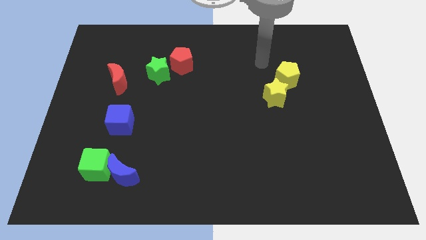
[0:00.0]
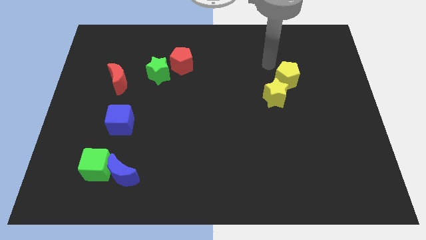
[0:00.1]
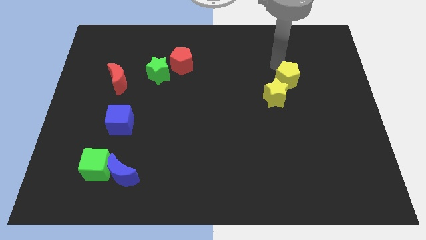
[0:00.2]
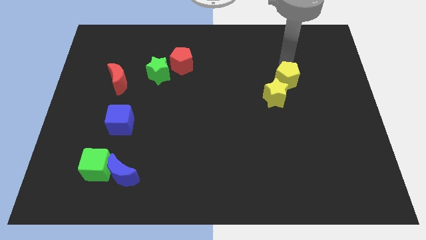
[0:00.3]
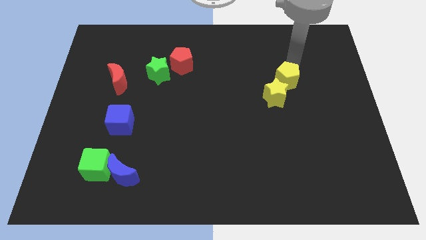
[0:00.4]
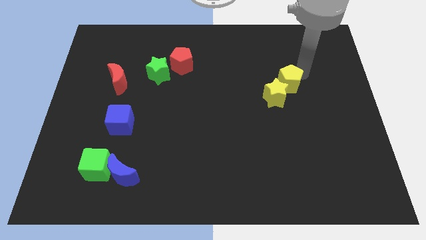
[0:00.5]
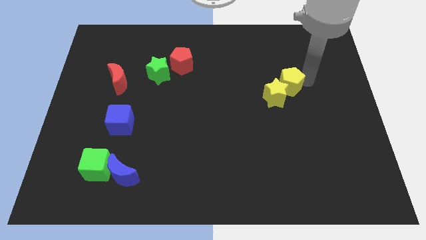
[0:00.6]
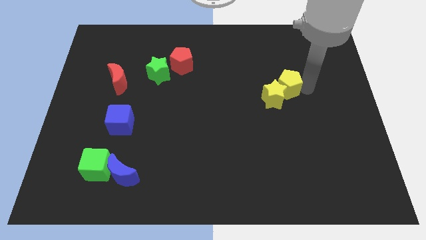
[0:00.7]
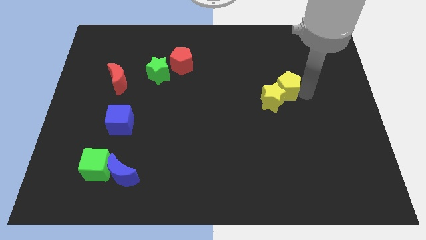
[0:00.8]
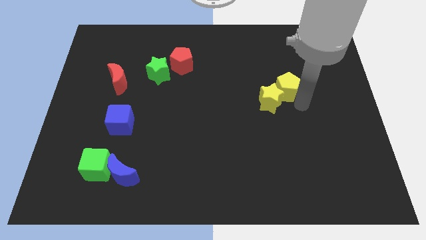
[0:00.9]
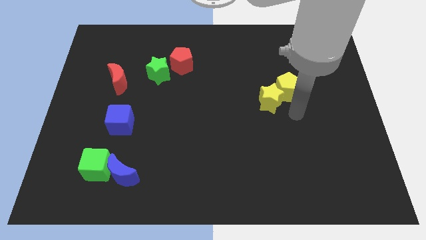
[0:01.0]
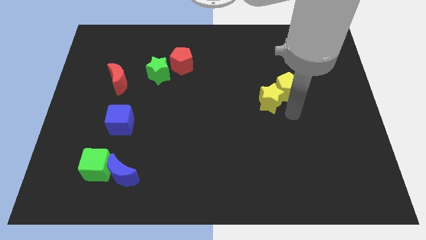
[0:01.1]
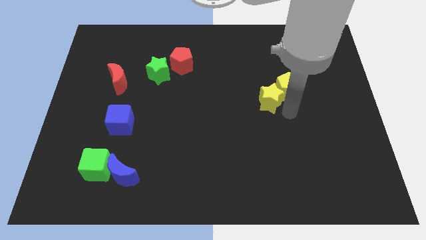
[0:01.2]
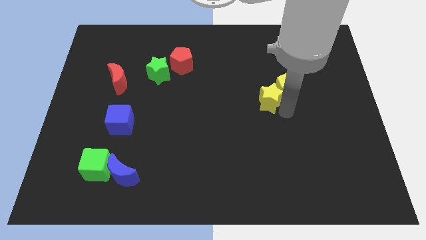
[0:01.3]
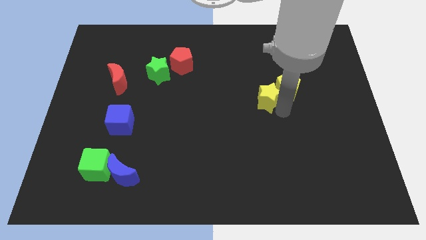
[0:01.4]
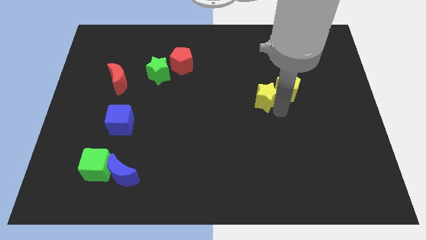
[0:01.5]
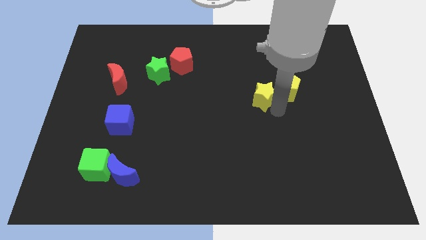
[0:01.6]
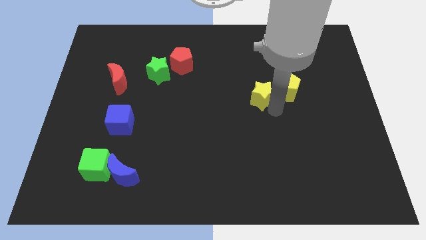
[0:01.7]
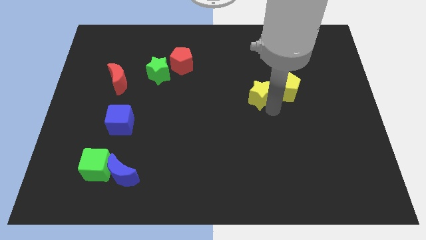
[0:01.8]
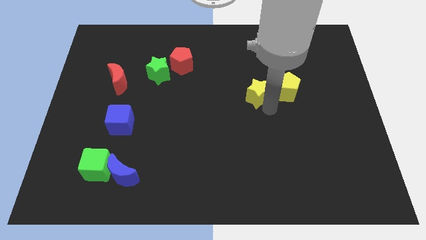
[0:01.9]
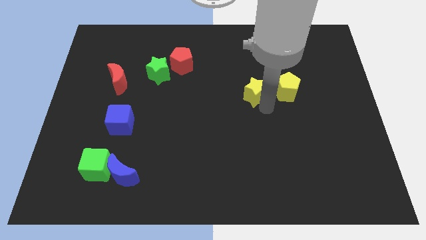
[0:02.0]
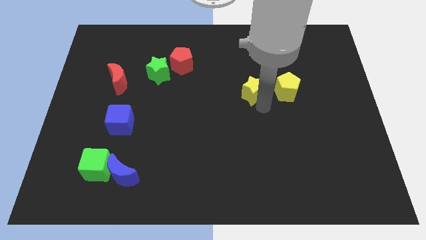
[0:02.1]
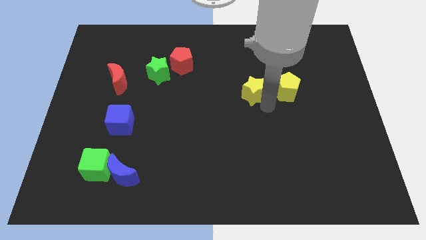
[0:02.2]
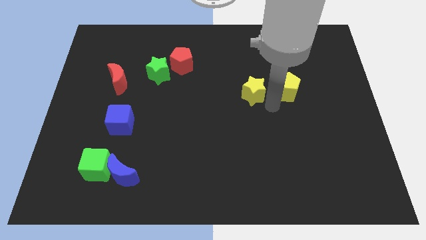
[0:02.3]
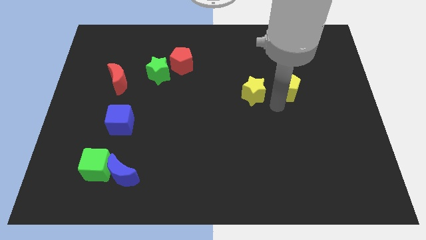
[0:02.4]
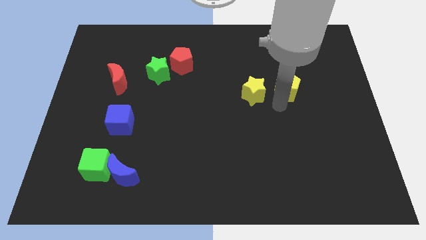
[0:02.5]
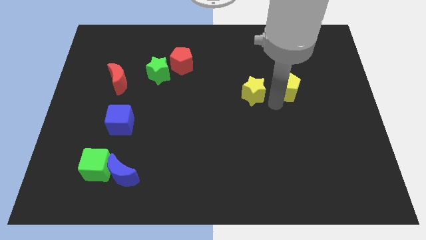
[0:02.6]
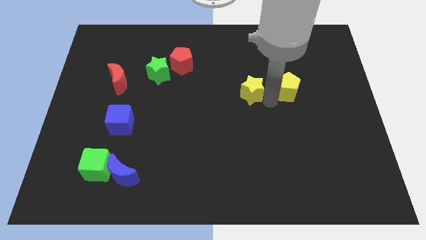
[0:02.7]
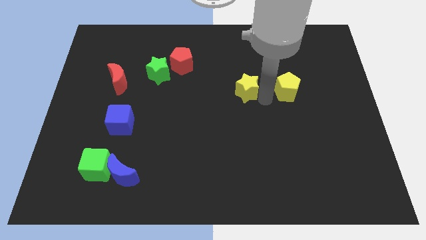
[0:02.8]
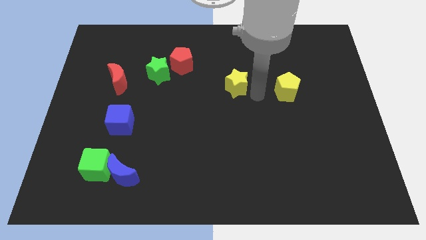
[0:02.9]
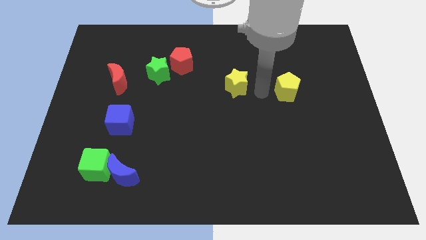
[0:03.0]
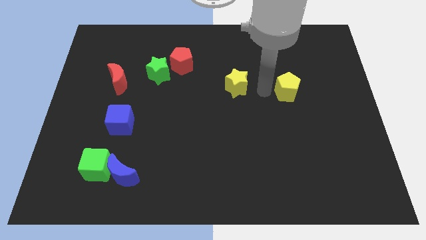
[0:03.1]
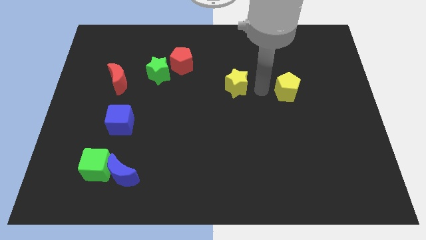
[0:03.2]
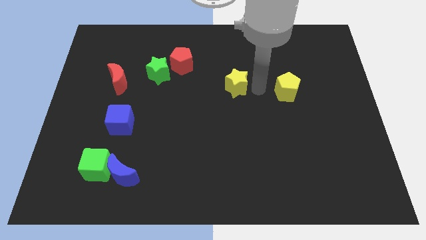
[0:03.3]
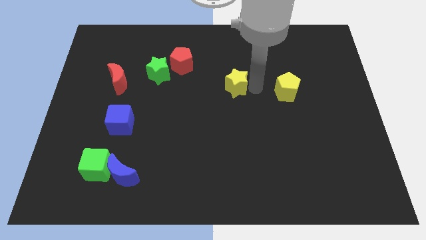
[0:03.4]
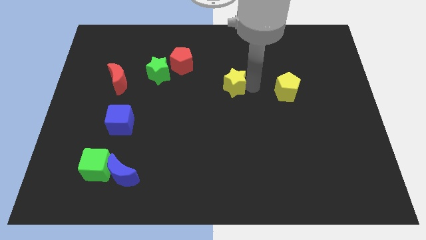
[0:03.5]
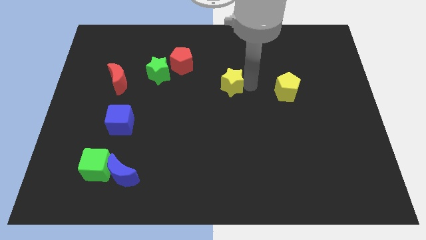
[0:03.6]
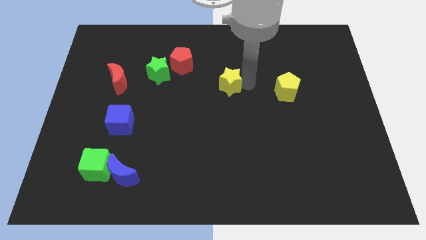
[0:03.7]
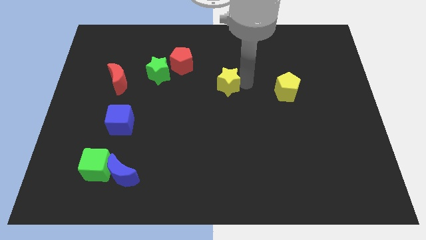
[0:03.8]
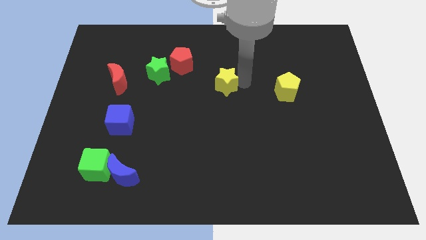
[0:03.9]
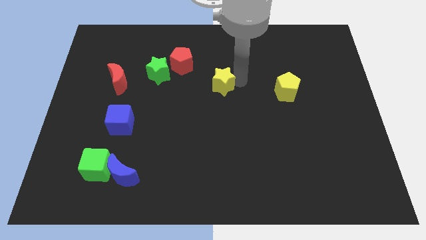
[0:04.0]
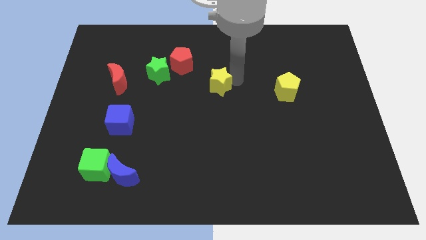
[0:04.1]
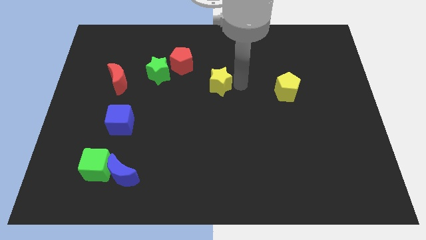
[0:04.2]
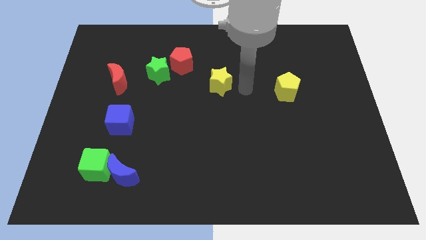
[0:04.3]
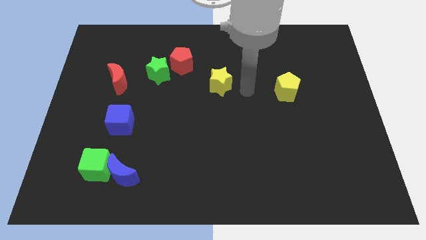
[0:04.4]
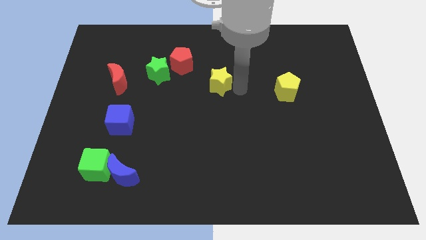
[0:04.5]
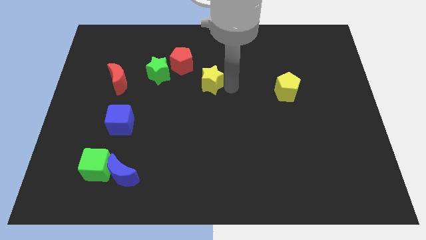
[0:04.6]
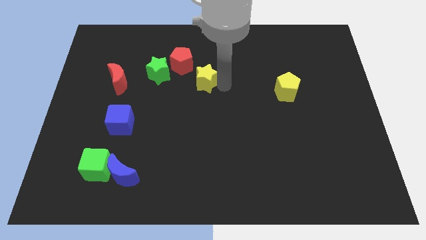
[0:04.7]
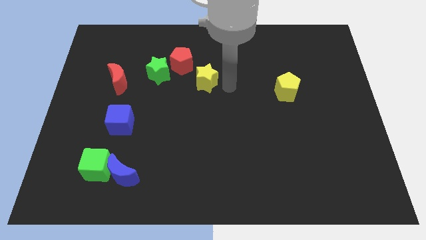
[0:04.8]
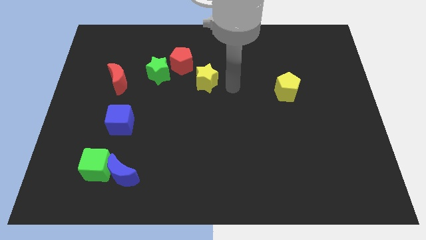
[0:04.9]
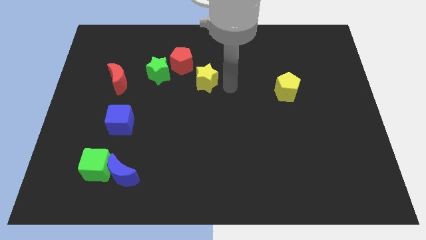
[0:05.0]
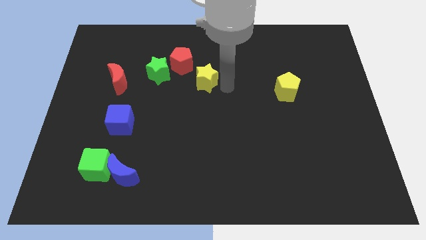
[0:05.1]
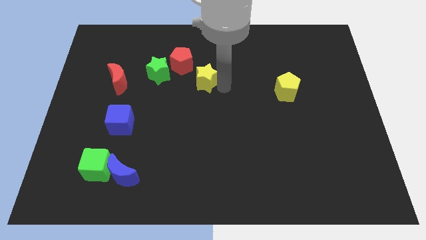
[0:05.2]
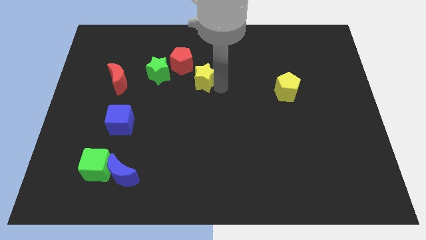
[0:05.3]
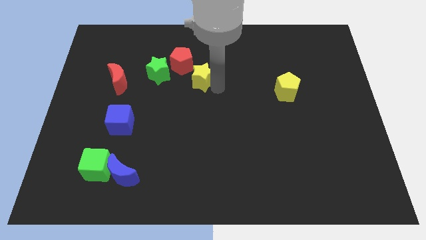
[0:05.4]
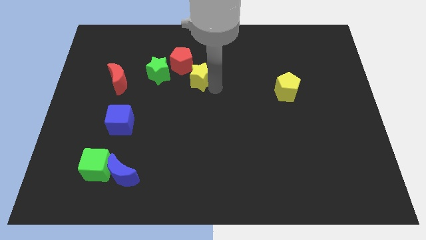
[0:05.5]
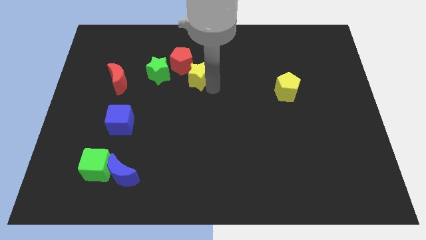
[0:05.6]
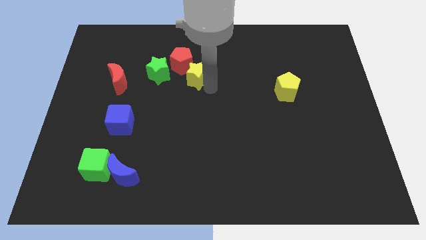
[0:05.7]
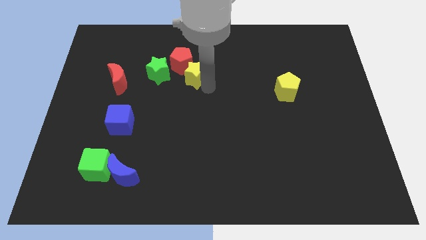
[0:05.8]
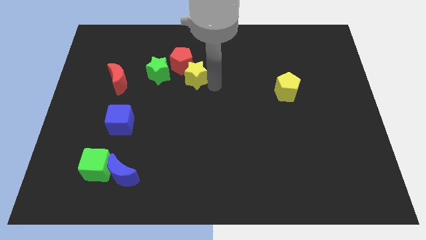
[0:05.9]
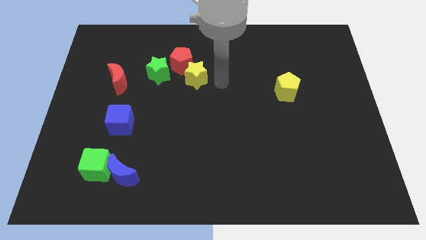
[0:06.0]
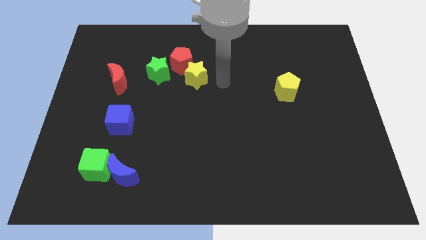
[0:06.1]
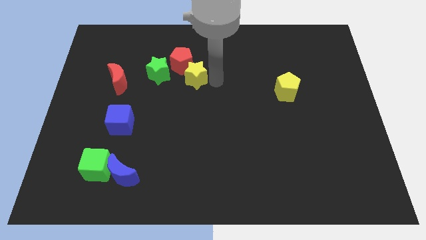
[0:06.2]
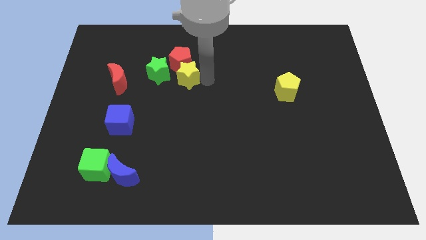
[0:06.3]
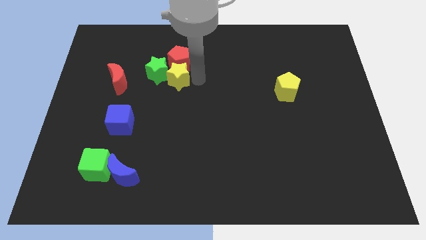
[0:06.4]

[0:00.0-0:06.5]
slide the yellow star towards the green star

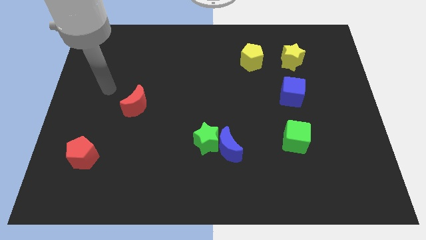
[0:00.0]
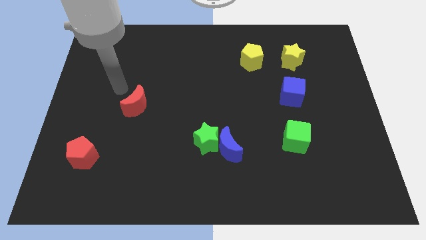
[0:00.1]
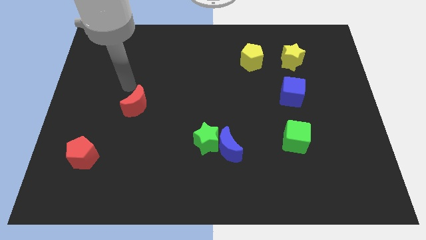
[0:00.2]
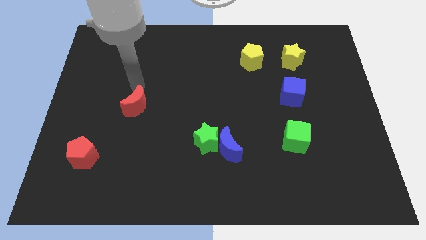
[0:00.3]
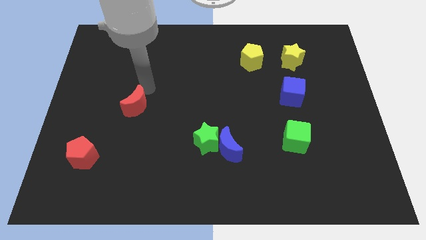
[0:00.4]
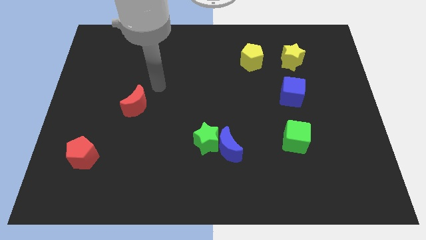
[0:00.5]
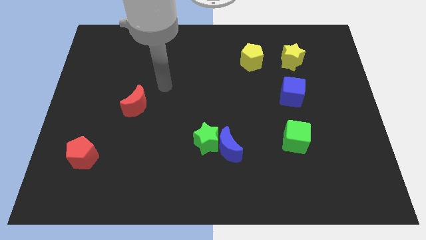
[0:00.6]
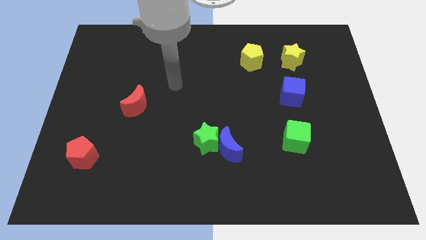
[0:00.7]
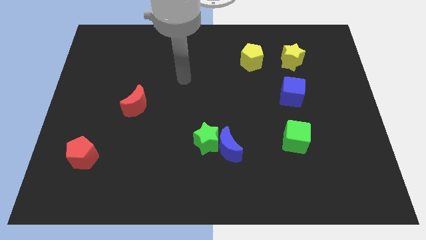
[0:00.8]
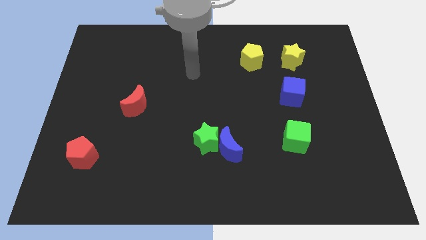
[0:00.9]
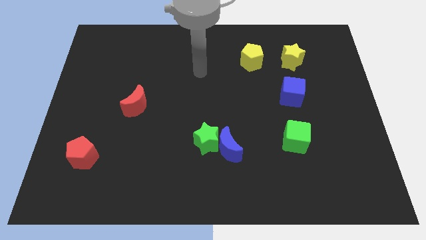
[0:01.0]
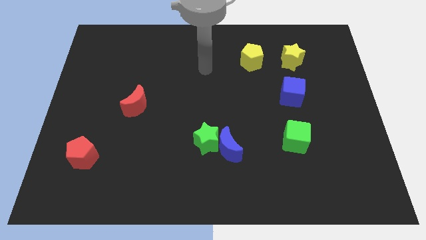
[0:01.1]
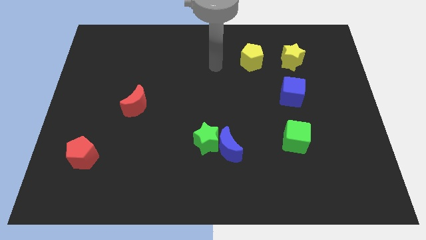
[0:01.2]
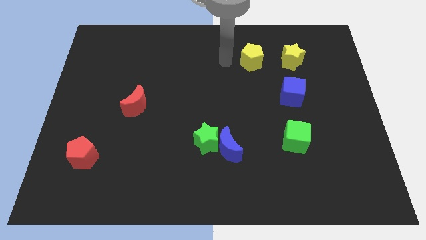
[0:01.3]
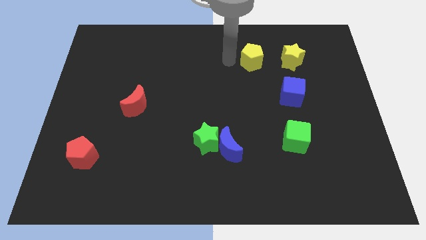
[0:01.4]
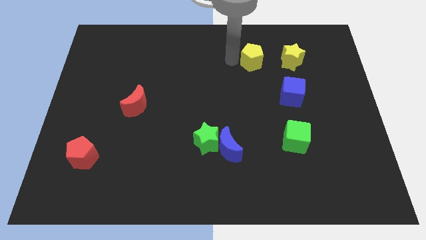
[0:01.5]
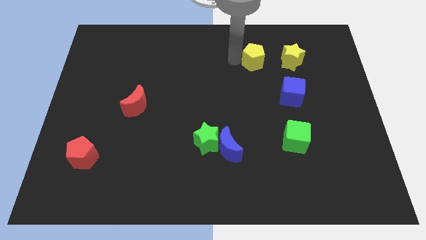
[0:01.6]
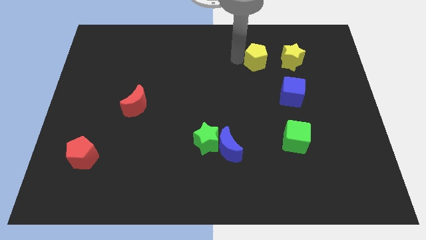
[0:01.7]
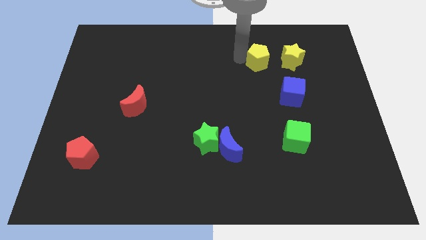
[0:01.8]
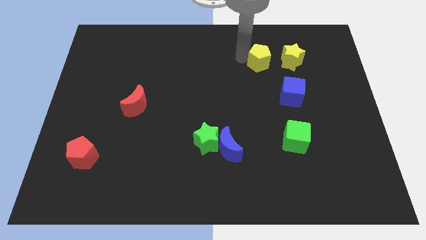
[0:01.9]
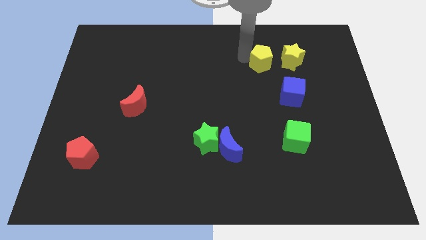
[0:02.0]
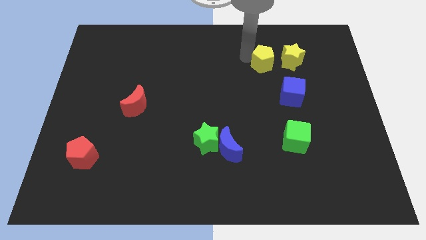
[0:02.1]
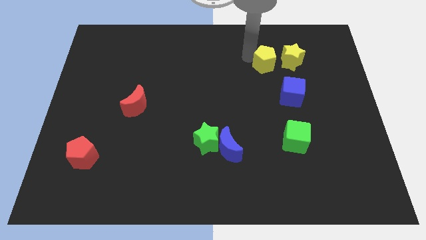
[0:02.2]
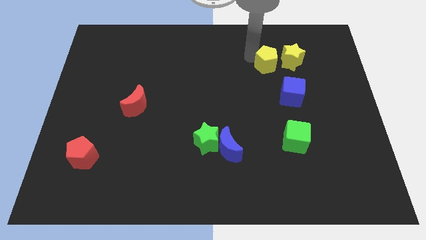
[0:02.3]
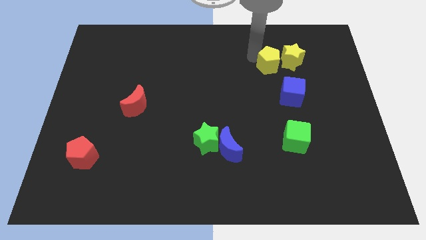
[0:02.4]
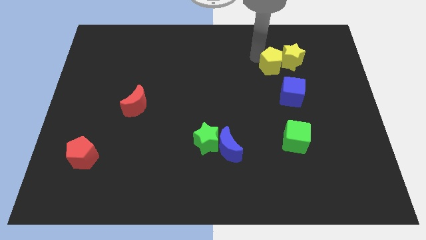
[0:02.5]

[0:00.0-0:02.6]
slide the yellow pentagon to the yellow star
